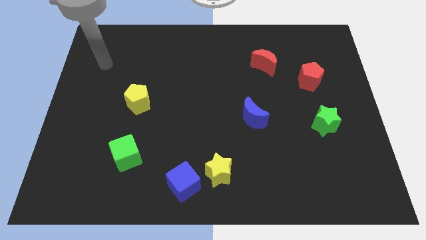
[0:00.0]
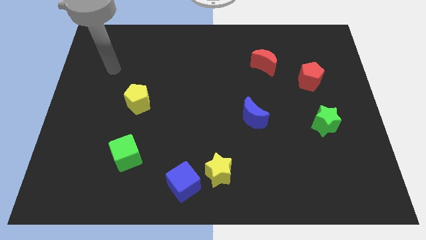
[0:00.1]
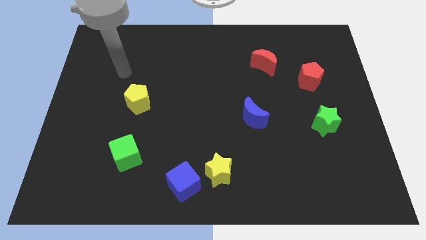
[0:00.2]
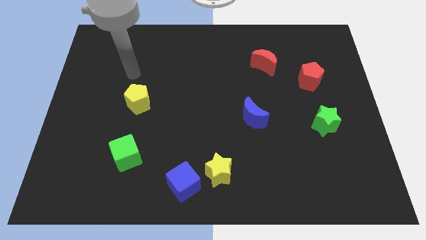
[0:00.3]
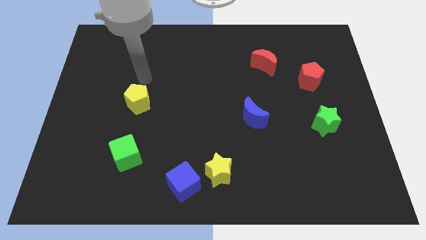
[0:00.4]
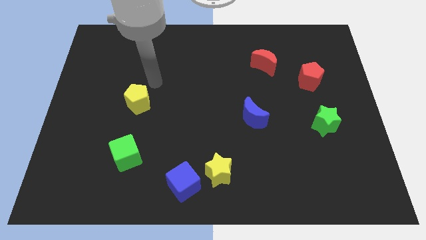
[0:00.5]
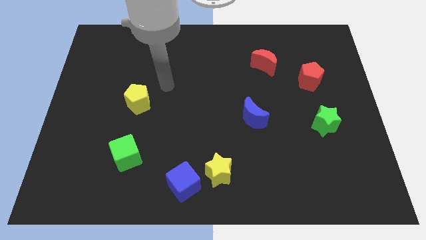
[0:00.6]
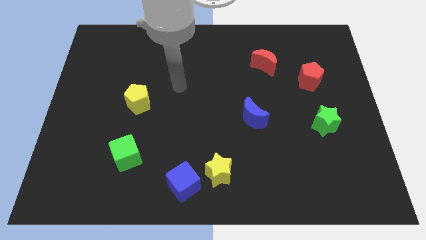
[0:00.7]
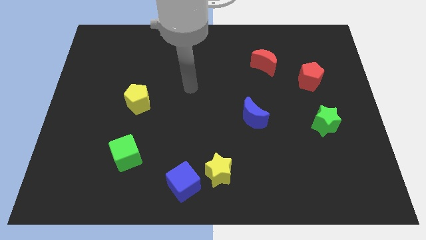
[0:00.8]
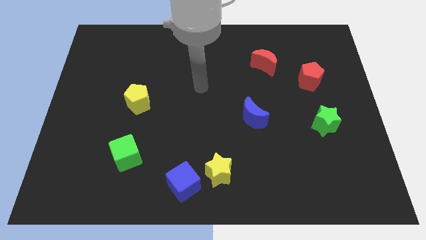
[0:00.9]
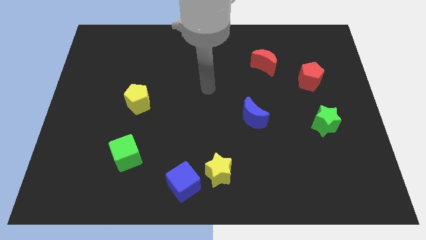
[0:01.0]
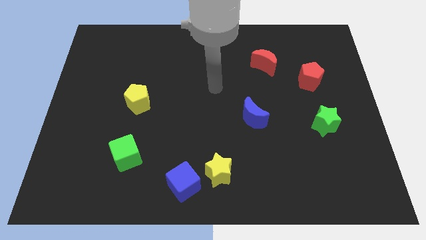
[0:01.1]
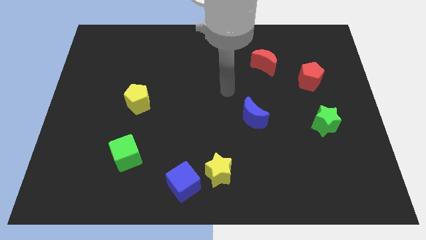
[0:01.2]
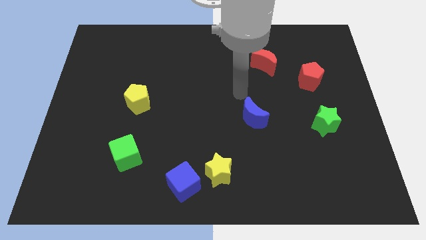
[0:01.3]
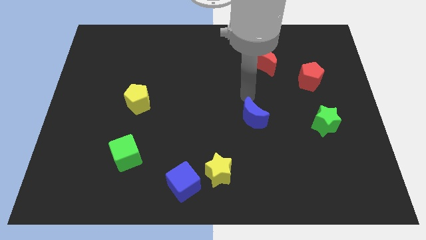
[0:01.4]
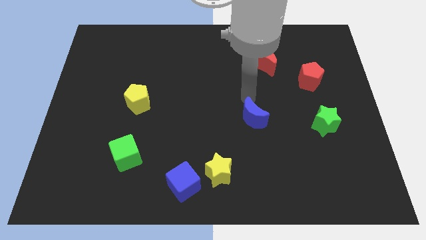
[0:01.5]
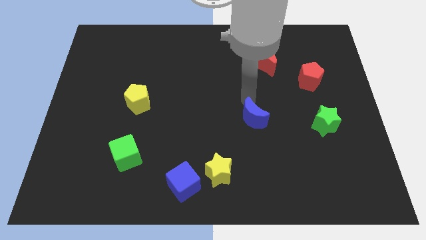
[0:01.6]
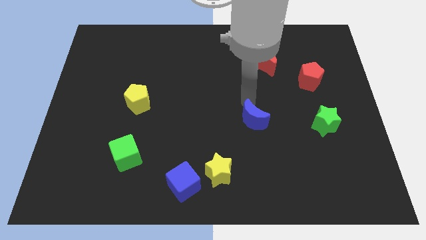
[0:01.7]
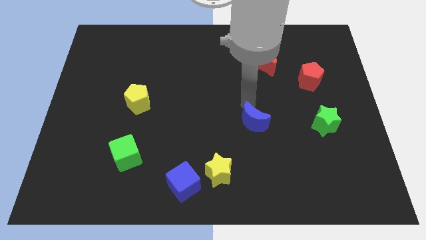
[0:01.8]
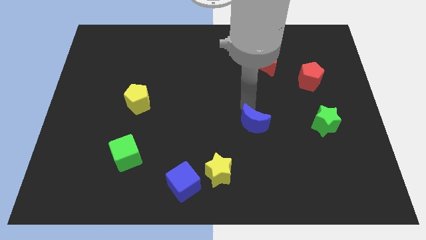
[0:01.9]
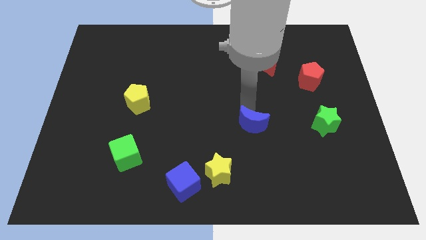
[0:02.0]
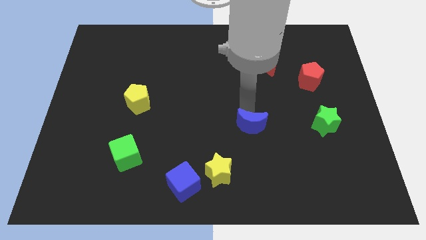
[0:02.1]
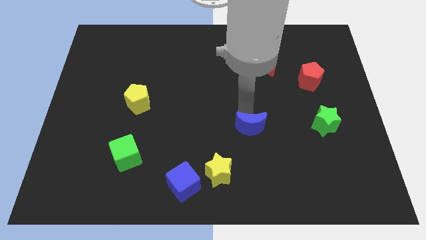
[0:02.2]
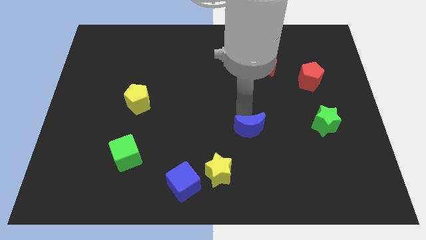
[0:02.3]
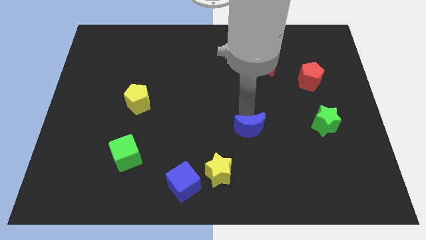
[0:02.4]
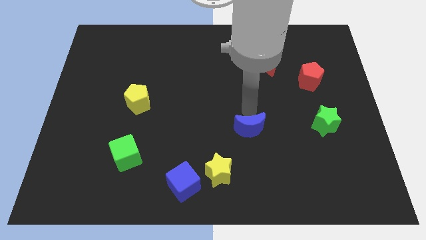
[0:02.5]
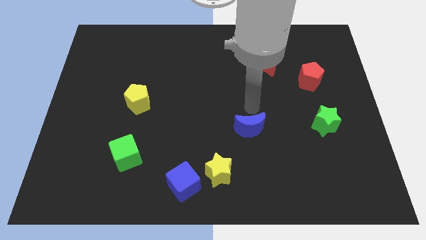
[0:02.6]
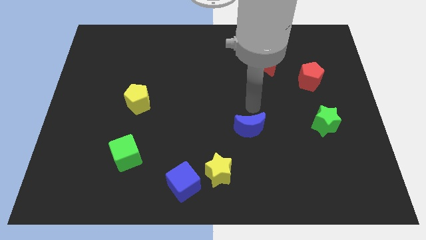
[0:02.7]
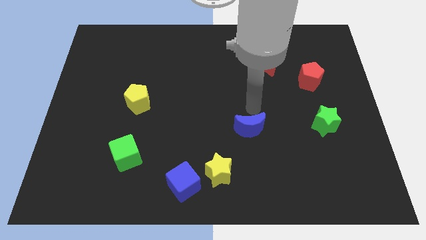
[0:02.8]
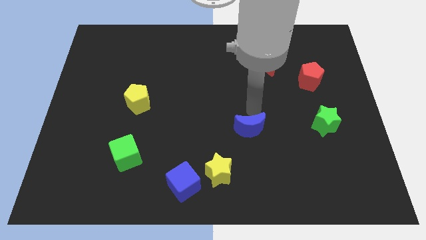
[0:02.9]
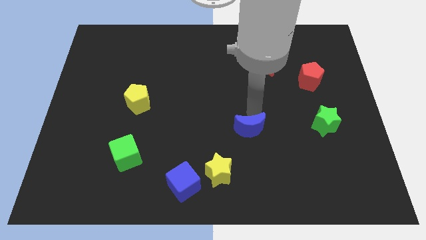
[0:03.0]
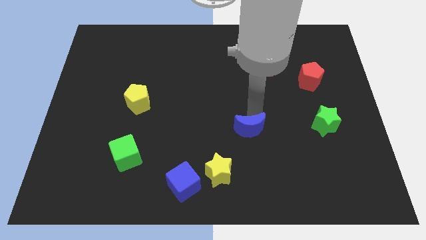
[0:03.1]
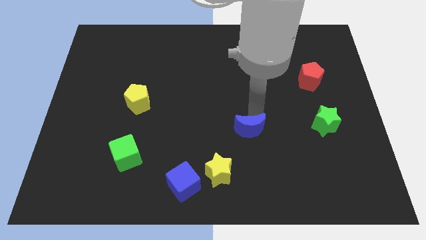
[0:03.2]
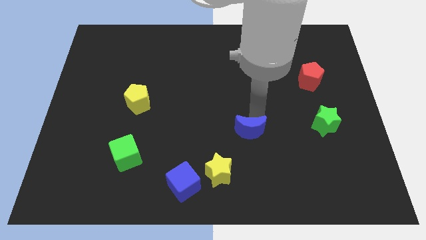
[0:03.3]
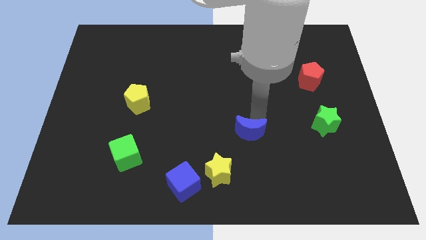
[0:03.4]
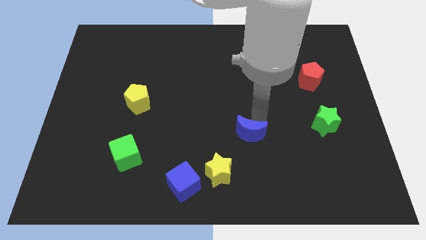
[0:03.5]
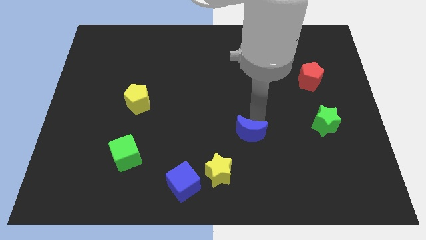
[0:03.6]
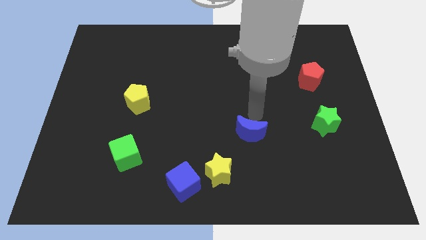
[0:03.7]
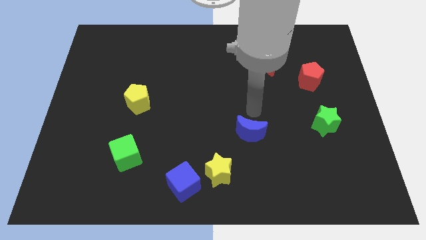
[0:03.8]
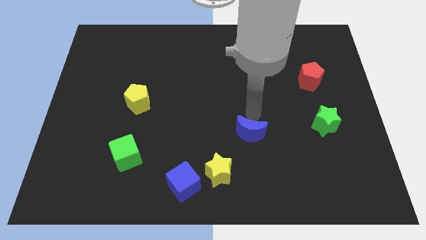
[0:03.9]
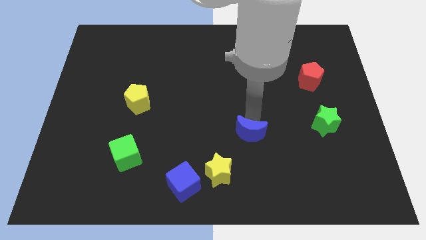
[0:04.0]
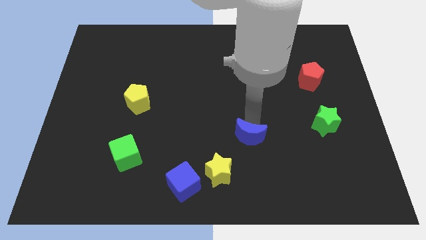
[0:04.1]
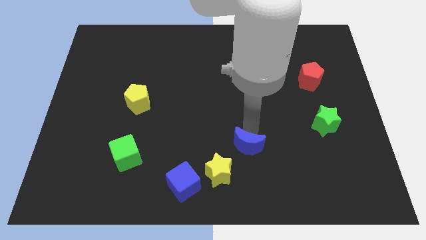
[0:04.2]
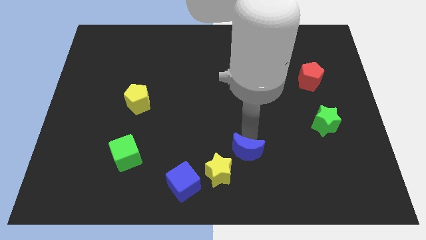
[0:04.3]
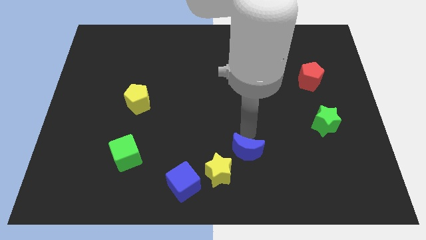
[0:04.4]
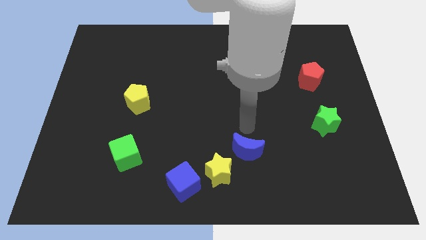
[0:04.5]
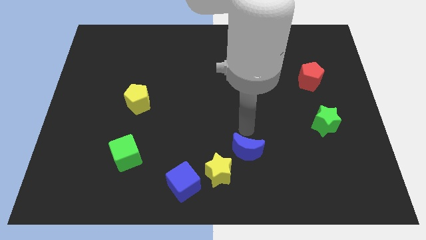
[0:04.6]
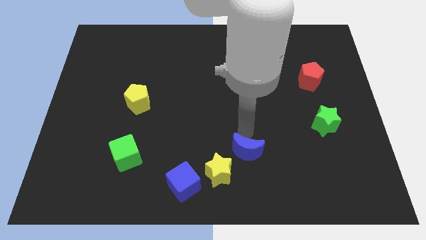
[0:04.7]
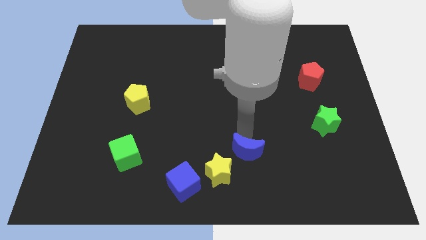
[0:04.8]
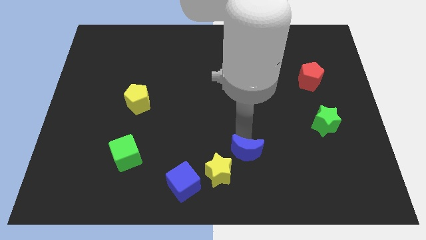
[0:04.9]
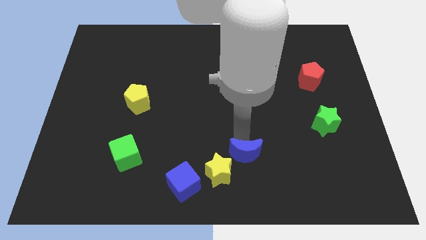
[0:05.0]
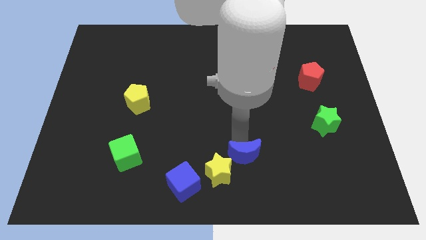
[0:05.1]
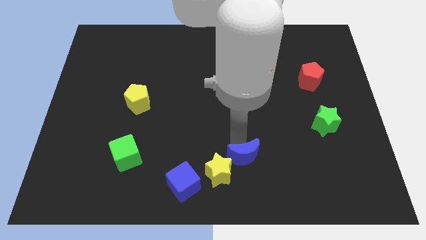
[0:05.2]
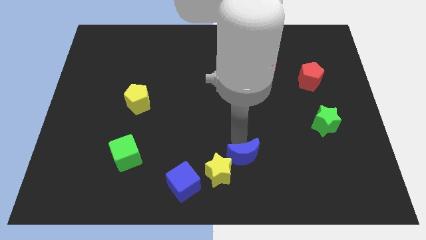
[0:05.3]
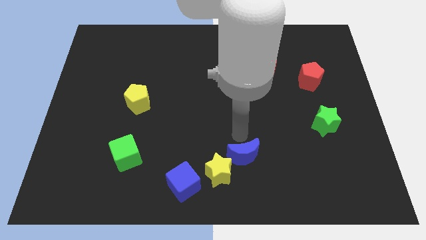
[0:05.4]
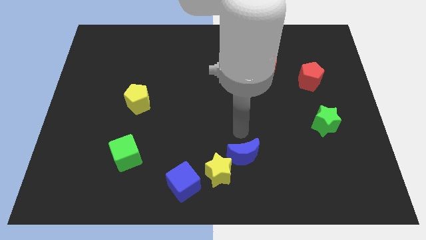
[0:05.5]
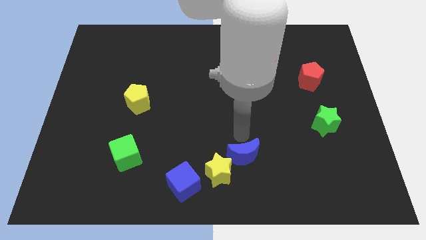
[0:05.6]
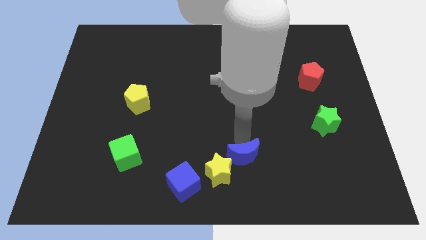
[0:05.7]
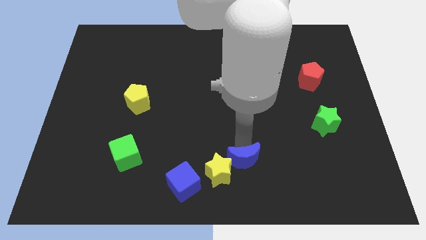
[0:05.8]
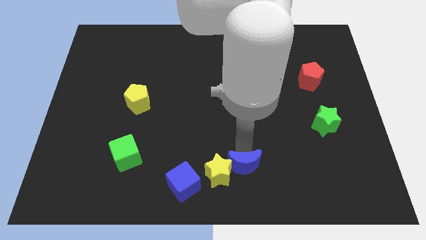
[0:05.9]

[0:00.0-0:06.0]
move the blue moon to the right side of the blue cube

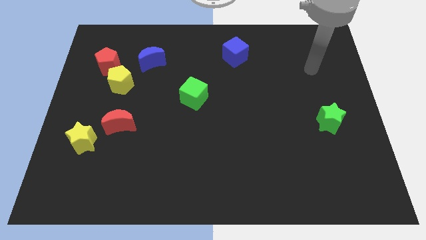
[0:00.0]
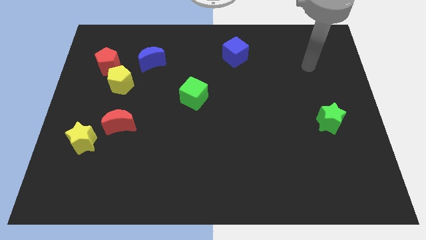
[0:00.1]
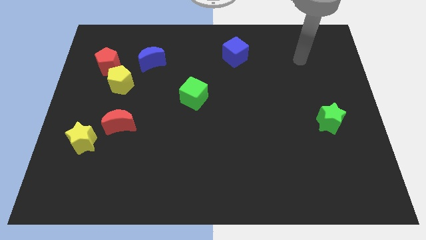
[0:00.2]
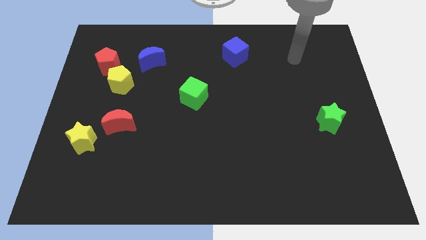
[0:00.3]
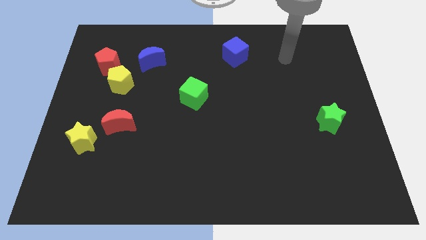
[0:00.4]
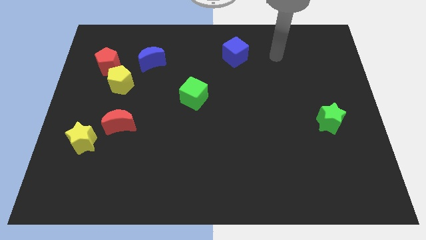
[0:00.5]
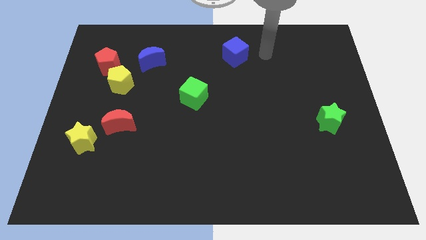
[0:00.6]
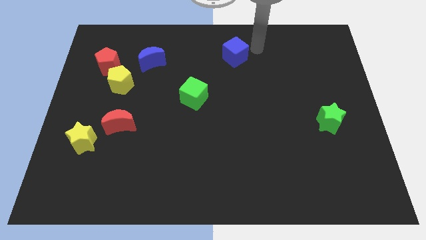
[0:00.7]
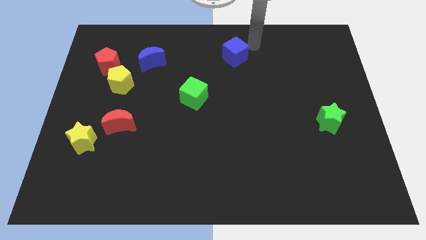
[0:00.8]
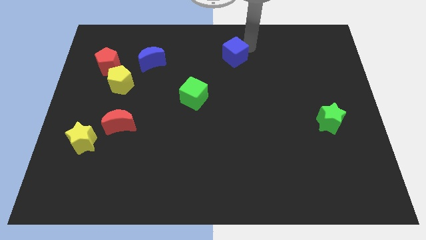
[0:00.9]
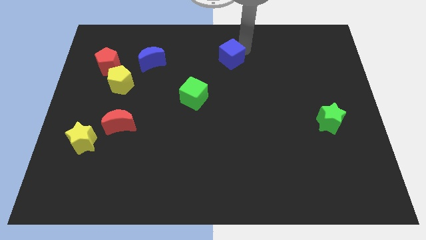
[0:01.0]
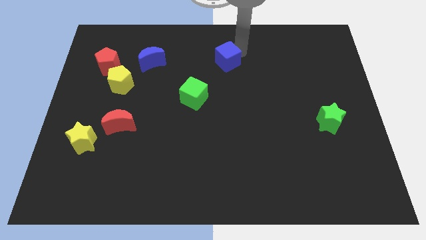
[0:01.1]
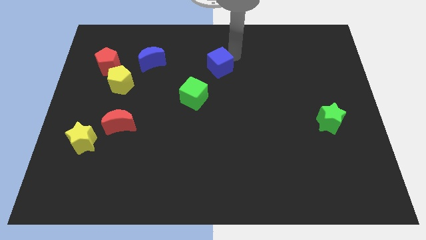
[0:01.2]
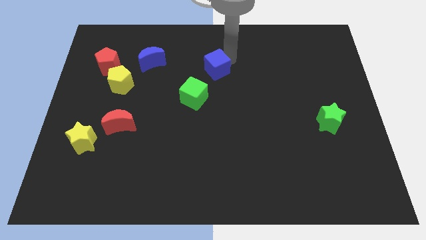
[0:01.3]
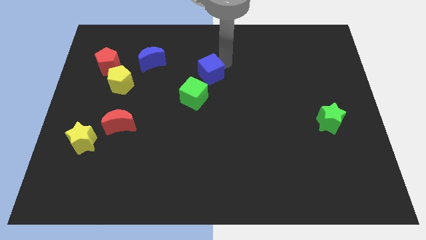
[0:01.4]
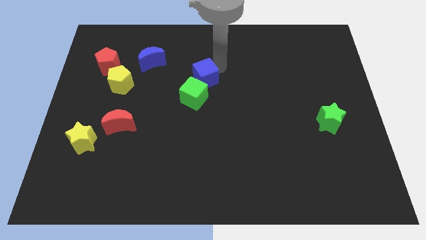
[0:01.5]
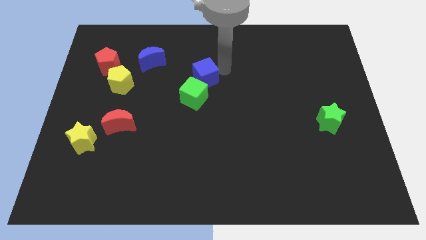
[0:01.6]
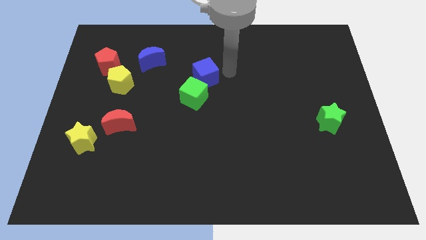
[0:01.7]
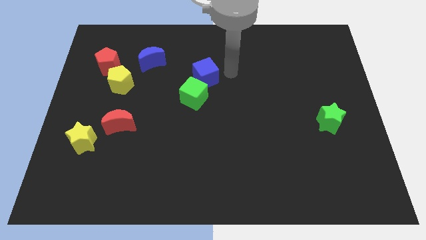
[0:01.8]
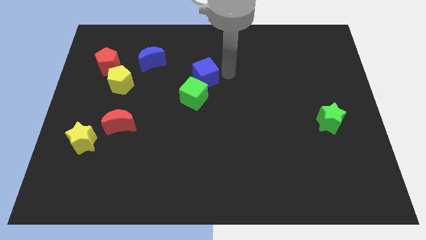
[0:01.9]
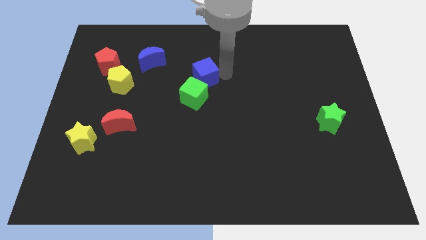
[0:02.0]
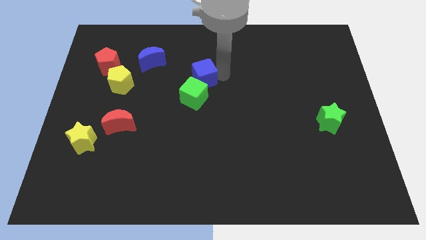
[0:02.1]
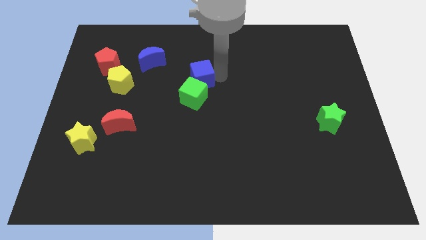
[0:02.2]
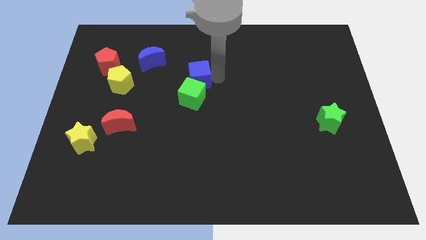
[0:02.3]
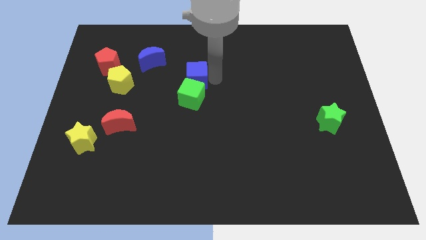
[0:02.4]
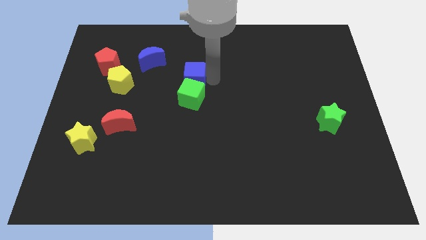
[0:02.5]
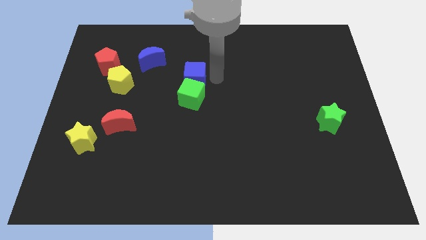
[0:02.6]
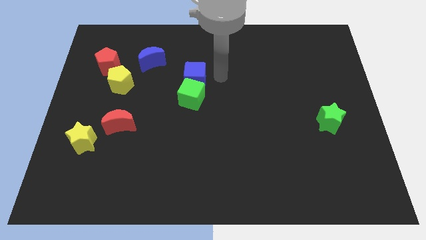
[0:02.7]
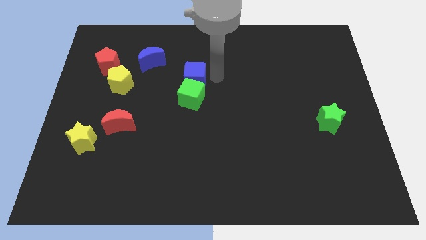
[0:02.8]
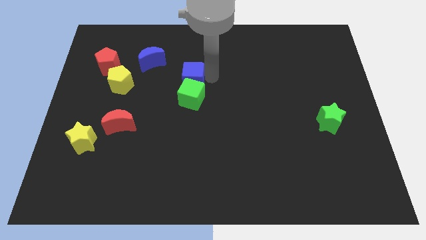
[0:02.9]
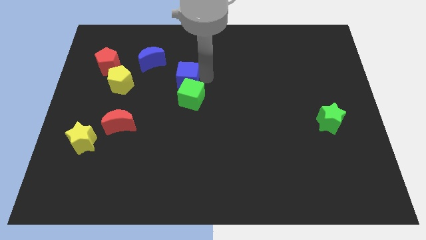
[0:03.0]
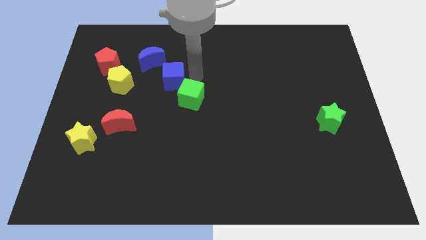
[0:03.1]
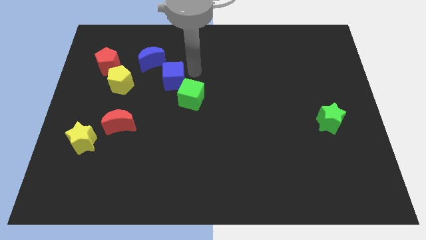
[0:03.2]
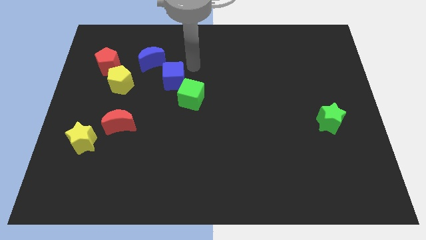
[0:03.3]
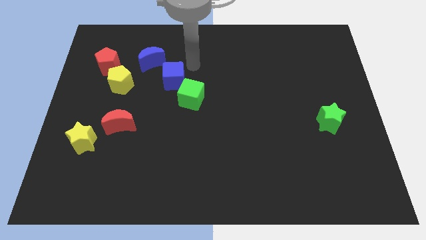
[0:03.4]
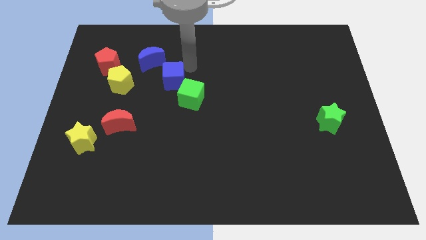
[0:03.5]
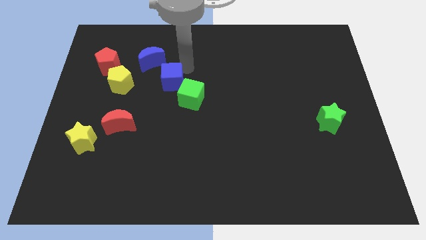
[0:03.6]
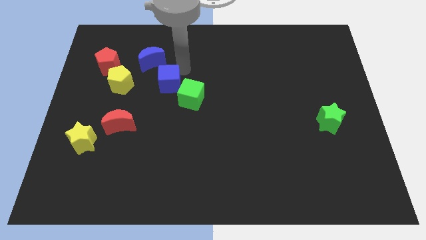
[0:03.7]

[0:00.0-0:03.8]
push the blue cube to the left side of the green cube
